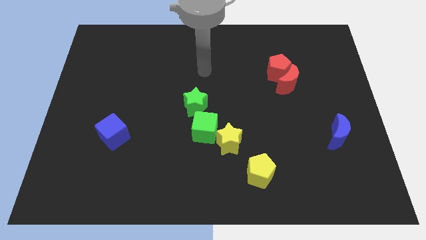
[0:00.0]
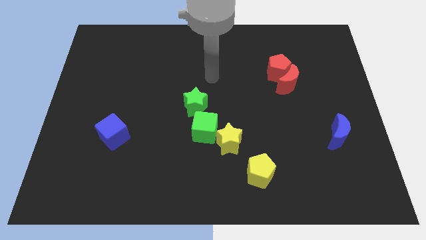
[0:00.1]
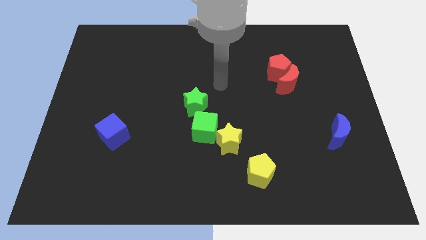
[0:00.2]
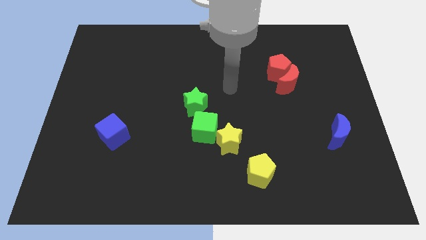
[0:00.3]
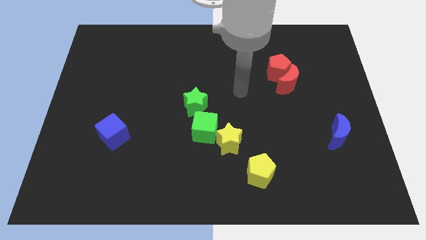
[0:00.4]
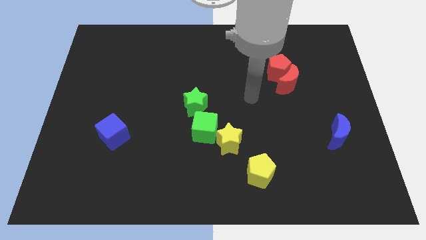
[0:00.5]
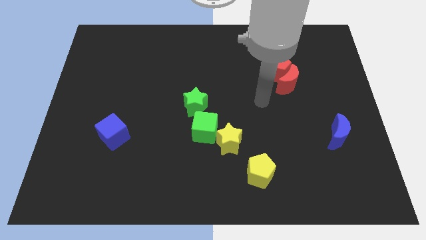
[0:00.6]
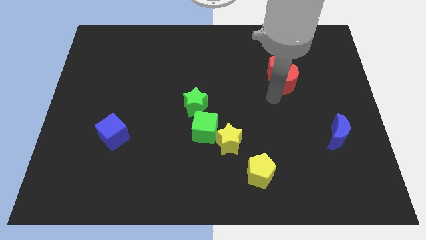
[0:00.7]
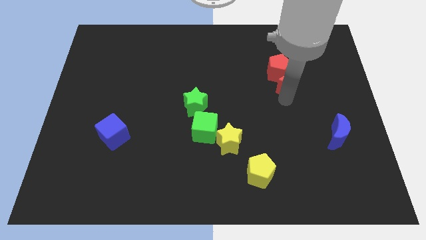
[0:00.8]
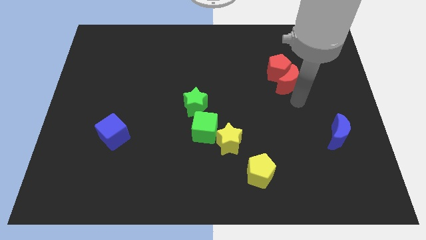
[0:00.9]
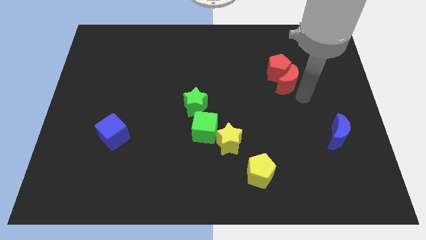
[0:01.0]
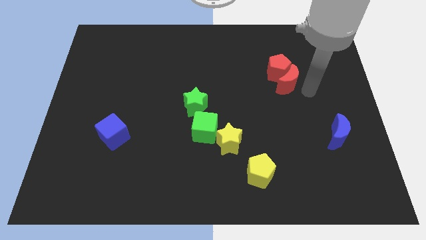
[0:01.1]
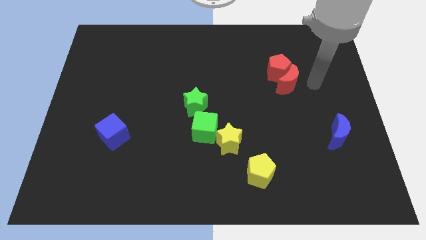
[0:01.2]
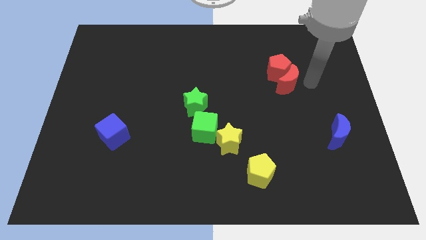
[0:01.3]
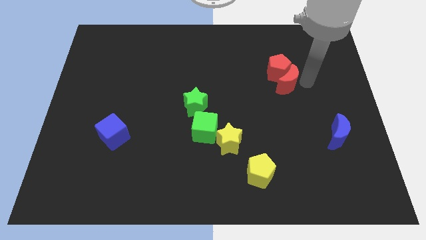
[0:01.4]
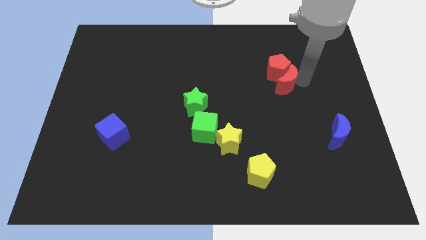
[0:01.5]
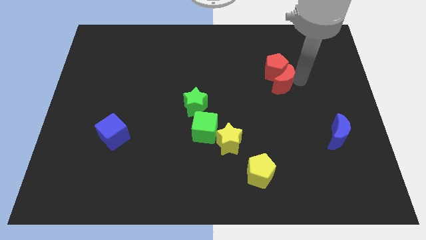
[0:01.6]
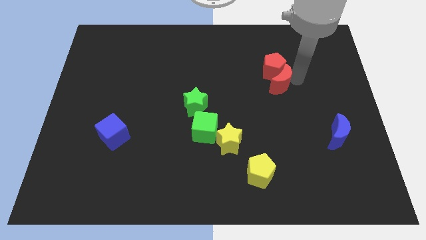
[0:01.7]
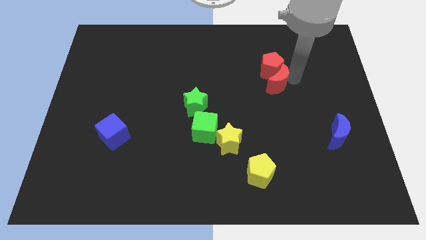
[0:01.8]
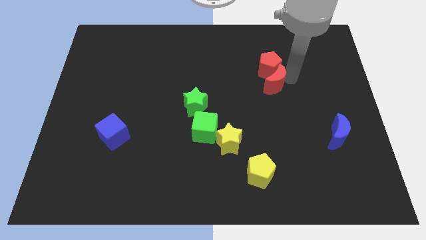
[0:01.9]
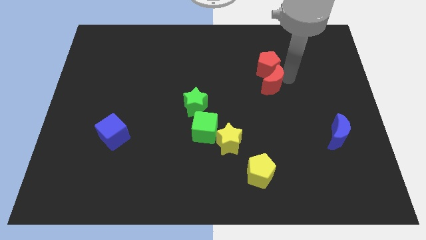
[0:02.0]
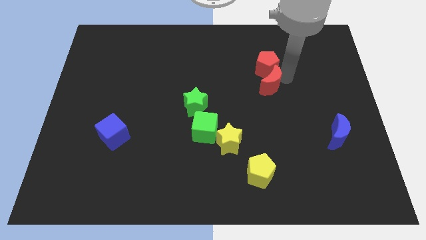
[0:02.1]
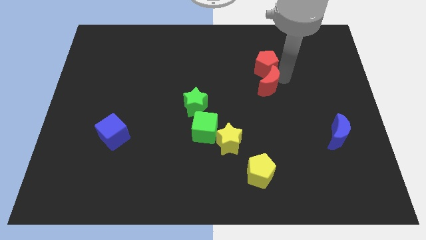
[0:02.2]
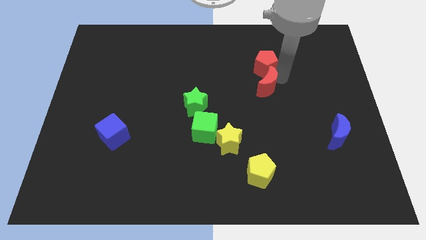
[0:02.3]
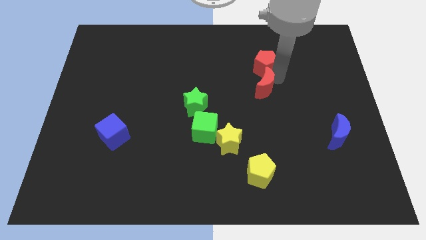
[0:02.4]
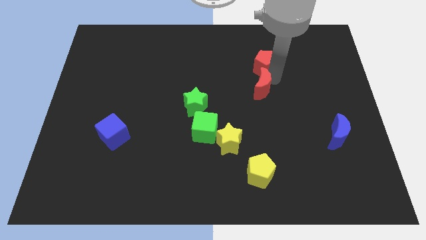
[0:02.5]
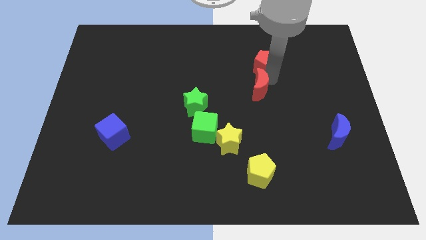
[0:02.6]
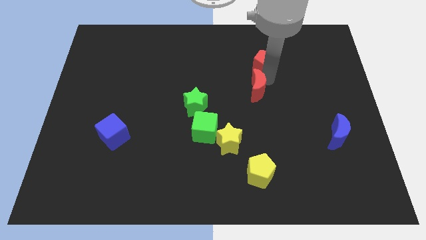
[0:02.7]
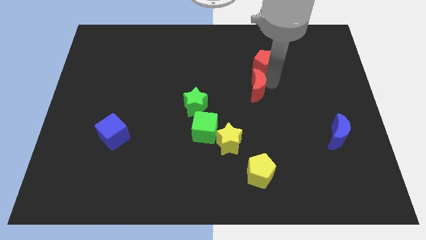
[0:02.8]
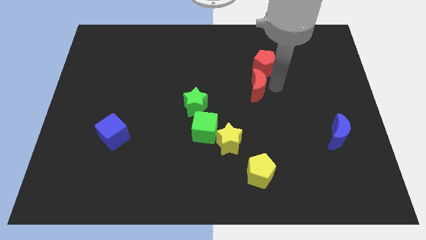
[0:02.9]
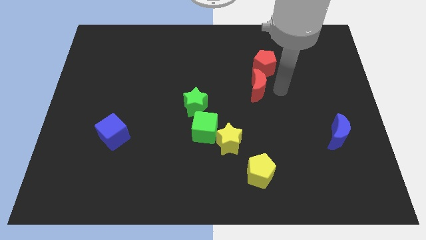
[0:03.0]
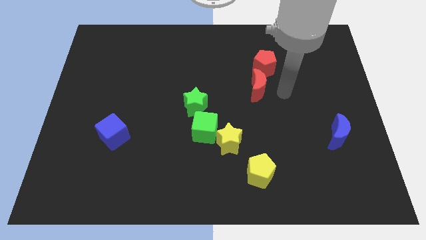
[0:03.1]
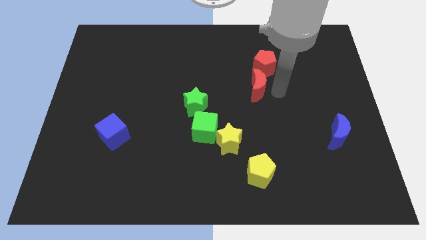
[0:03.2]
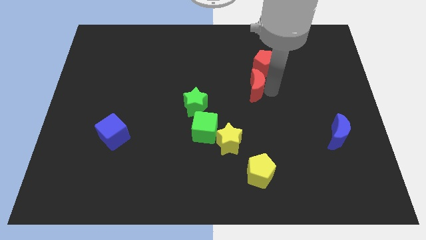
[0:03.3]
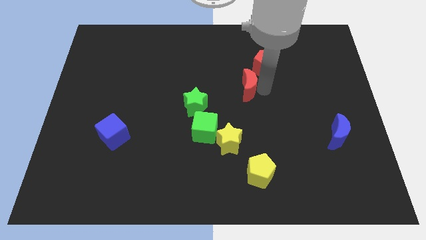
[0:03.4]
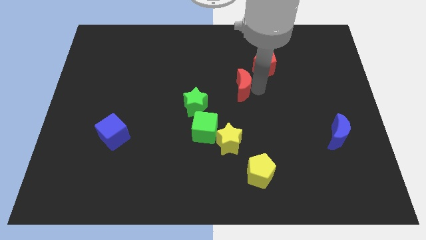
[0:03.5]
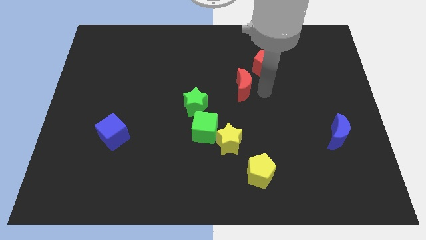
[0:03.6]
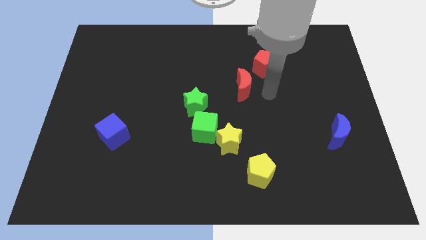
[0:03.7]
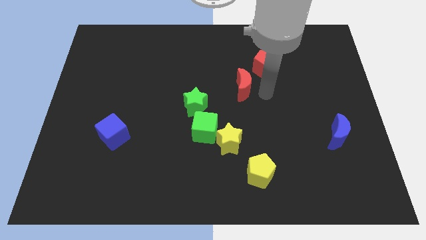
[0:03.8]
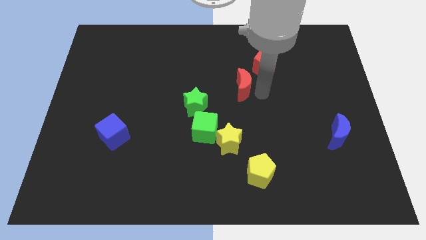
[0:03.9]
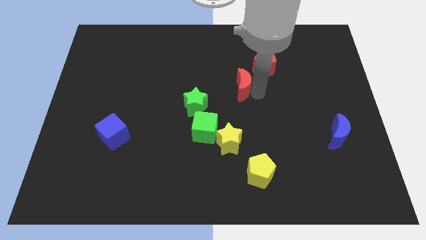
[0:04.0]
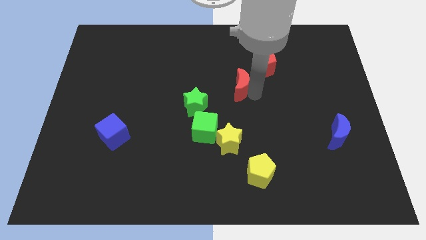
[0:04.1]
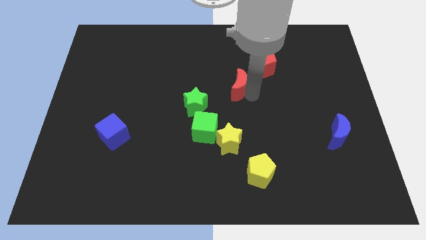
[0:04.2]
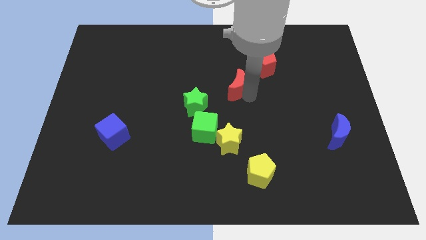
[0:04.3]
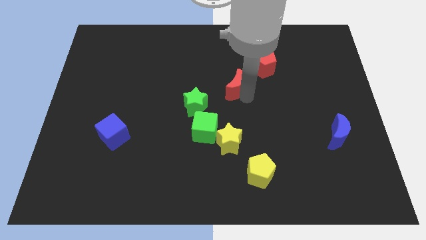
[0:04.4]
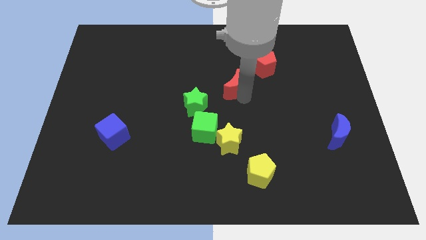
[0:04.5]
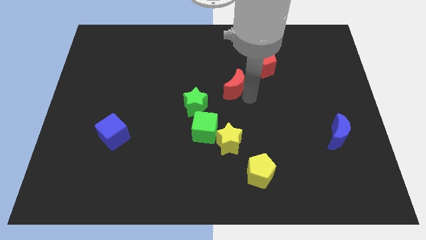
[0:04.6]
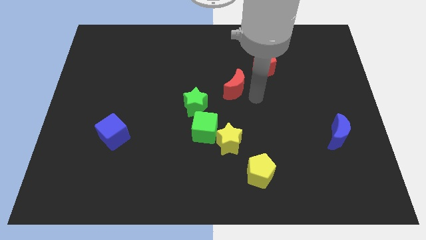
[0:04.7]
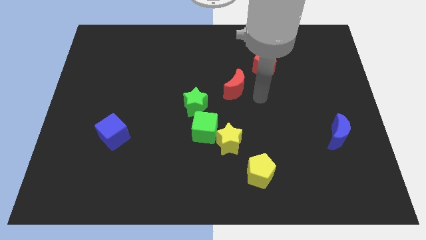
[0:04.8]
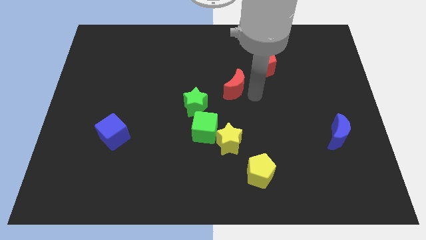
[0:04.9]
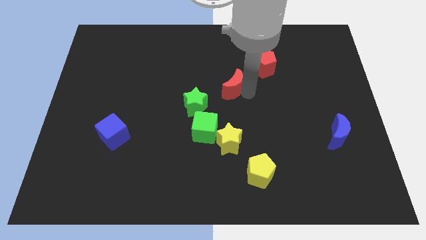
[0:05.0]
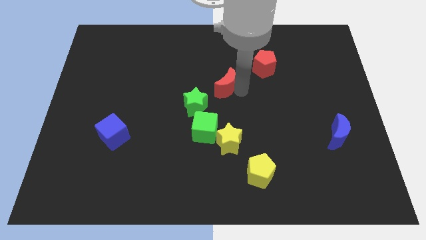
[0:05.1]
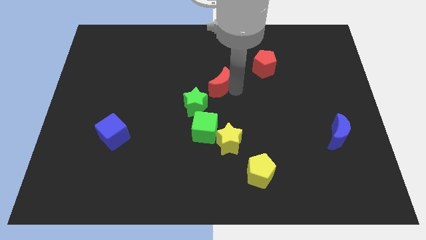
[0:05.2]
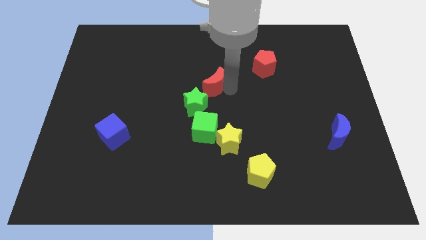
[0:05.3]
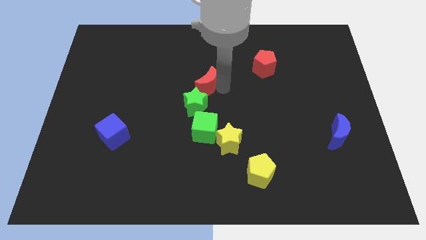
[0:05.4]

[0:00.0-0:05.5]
push the red moon left

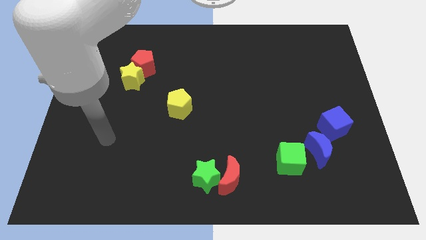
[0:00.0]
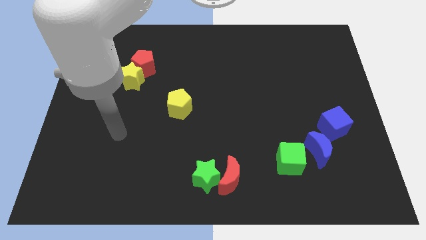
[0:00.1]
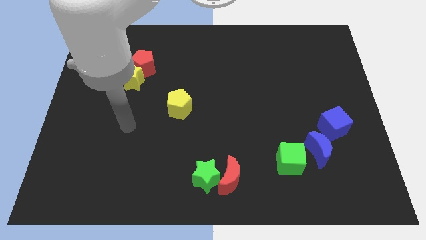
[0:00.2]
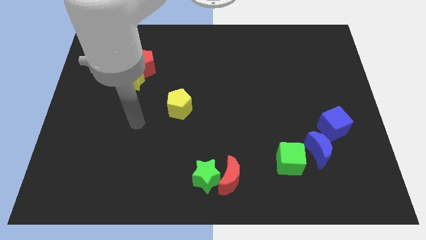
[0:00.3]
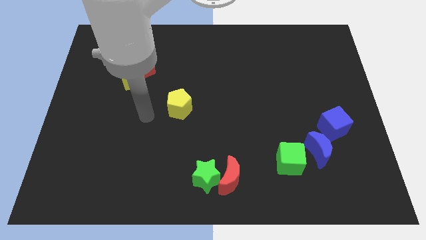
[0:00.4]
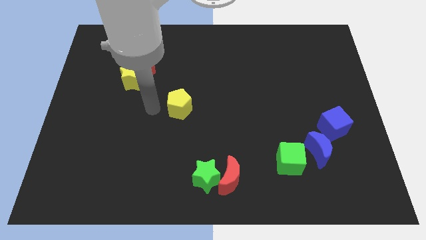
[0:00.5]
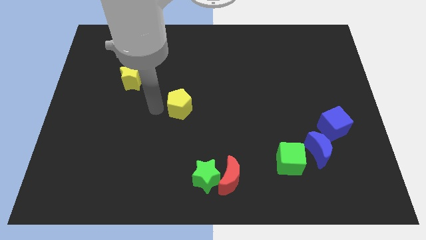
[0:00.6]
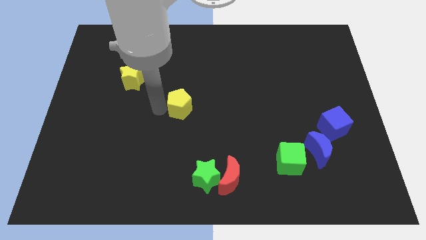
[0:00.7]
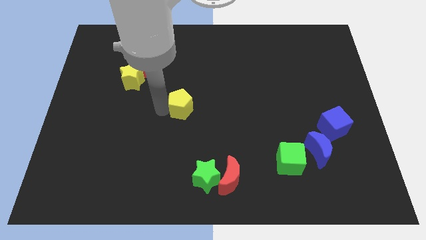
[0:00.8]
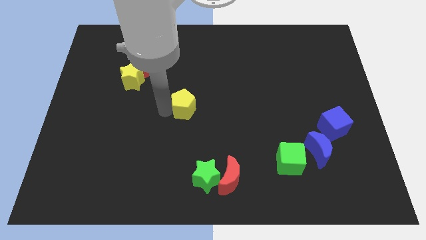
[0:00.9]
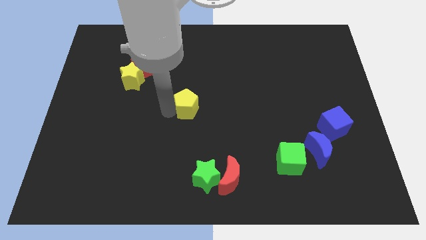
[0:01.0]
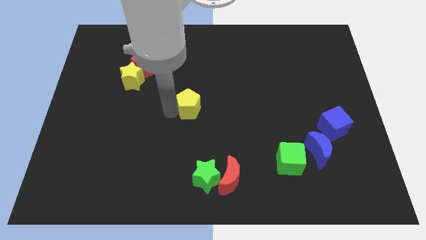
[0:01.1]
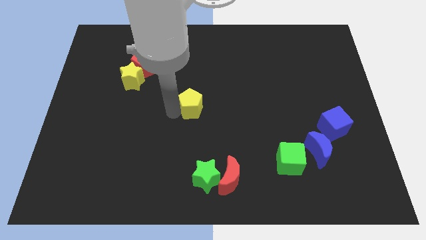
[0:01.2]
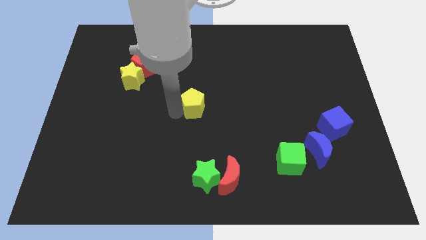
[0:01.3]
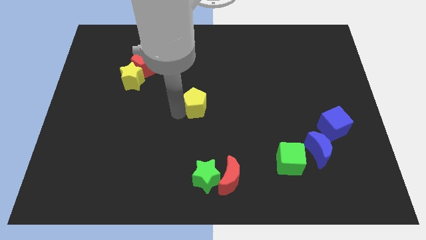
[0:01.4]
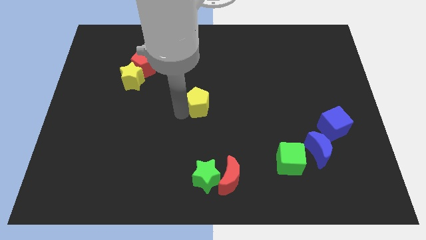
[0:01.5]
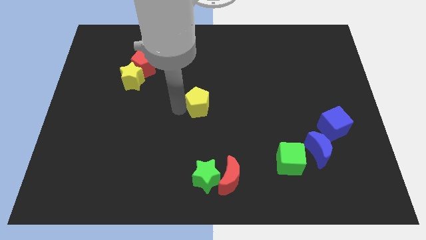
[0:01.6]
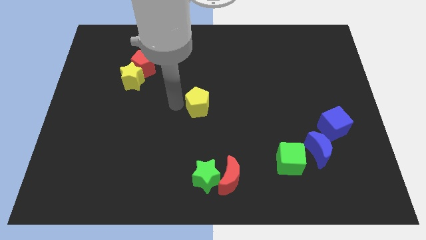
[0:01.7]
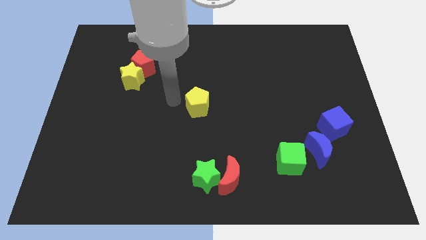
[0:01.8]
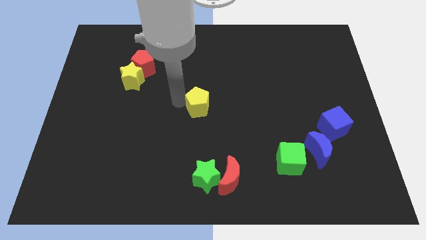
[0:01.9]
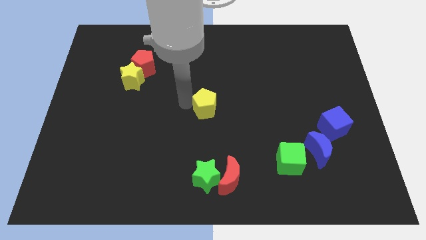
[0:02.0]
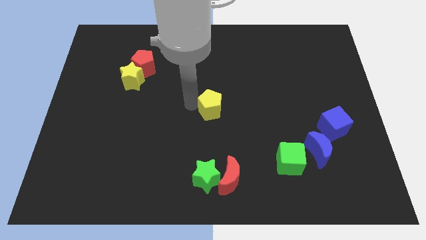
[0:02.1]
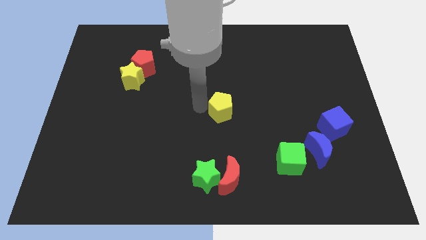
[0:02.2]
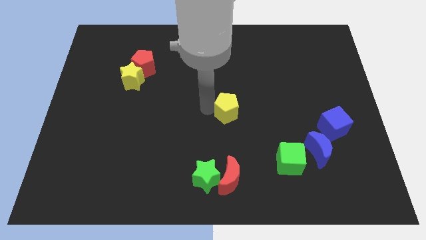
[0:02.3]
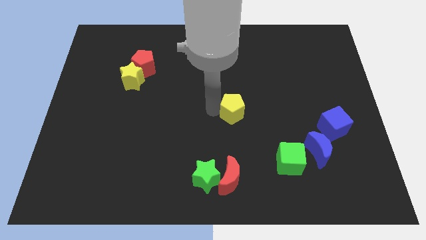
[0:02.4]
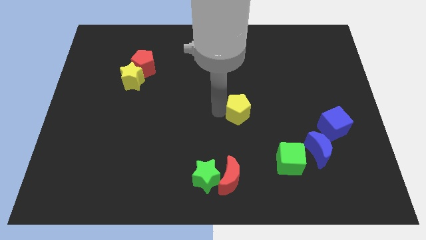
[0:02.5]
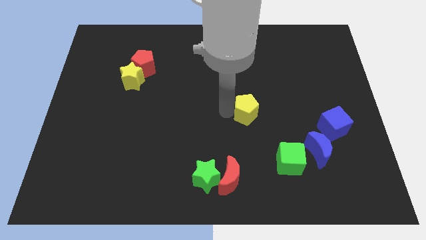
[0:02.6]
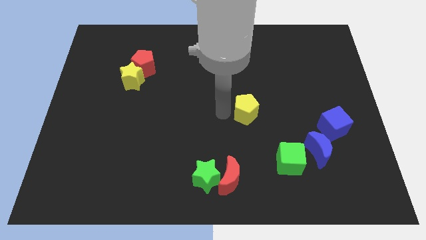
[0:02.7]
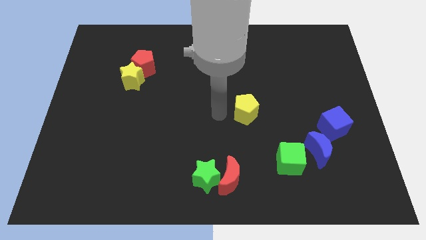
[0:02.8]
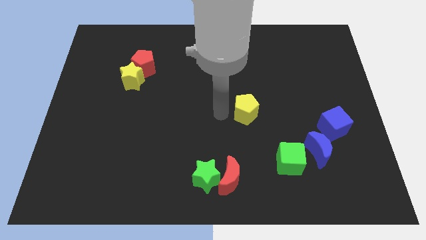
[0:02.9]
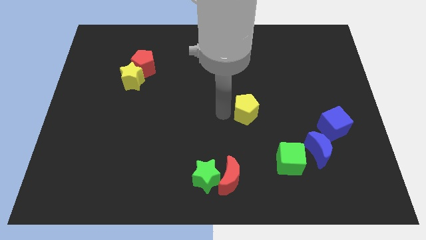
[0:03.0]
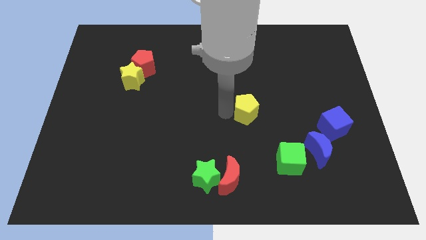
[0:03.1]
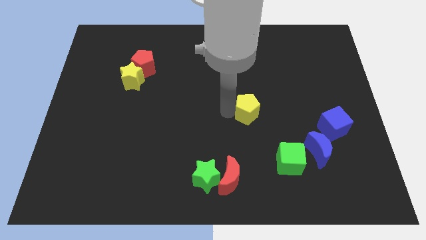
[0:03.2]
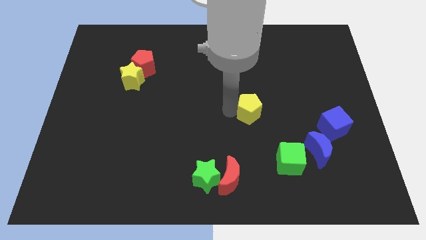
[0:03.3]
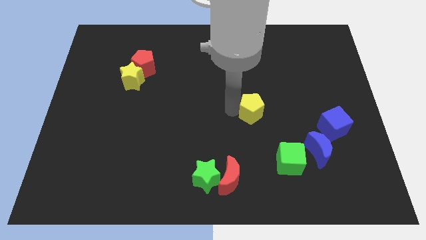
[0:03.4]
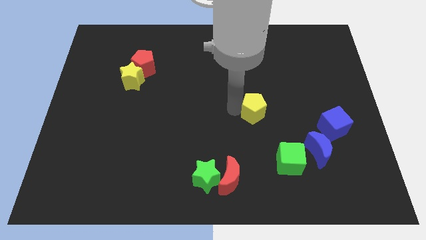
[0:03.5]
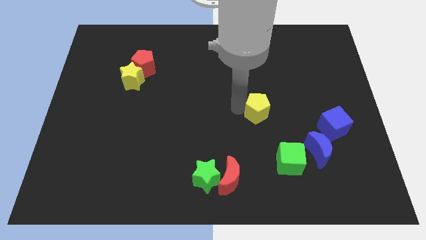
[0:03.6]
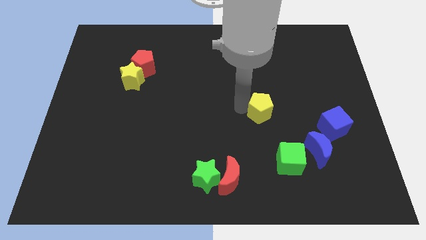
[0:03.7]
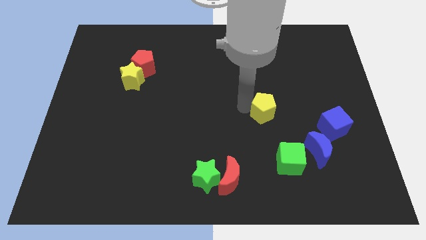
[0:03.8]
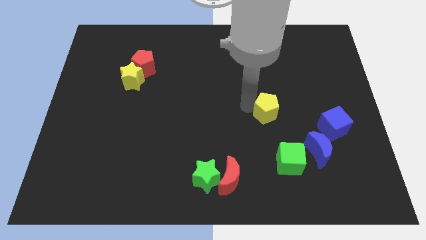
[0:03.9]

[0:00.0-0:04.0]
move the yellow pentagon right
